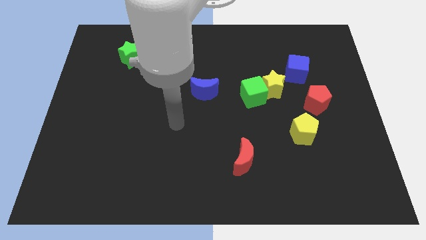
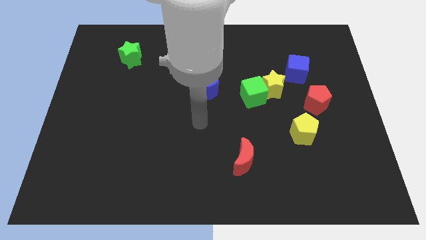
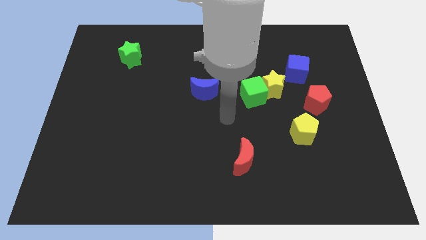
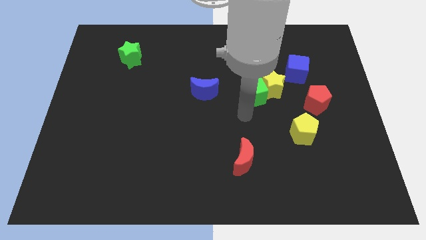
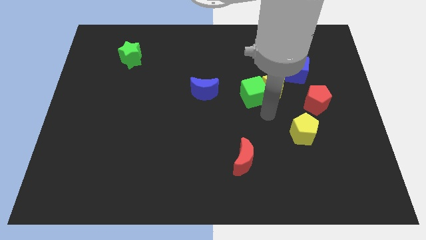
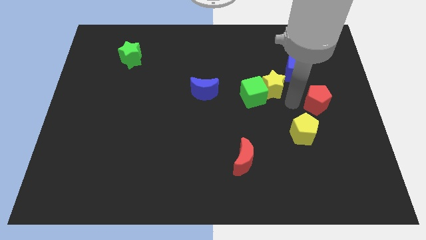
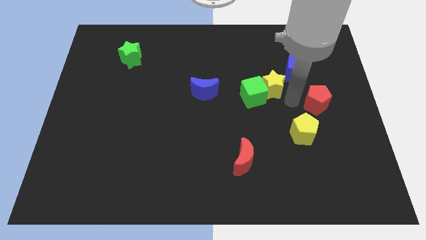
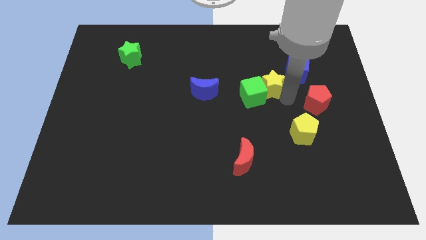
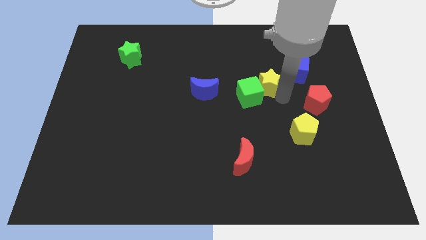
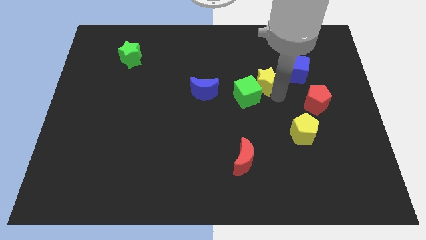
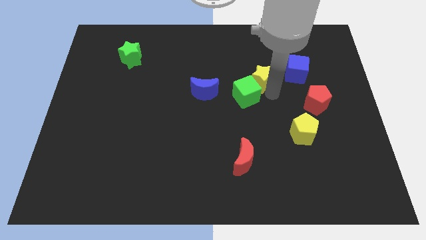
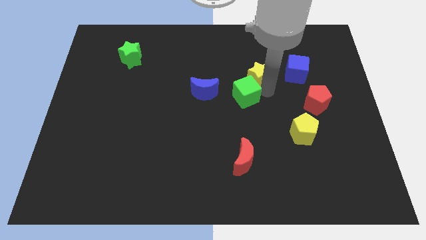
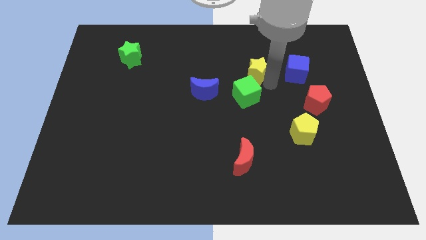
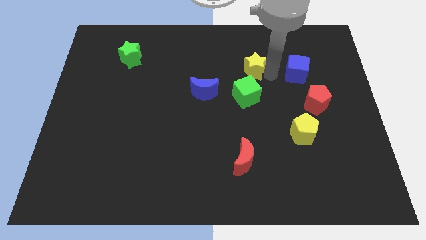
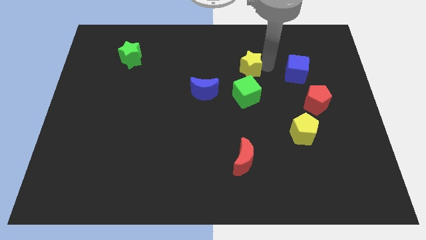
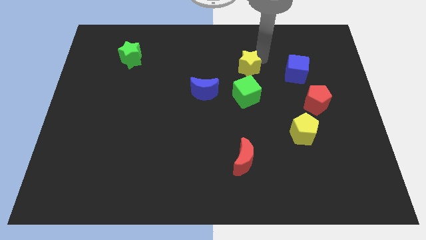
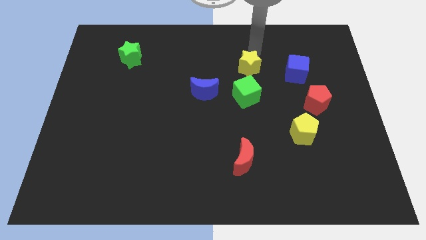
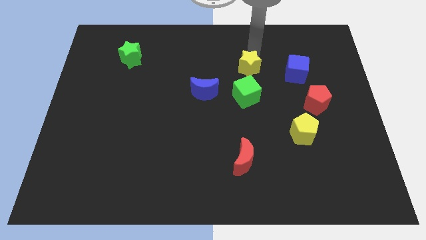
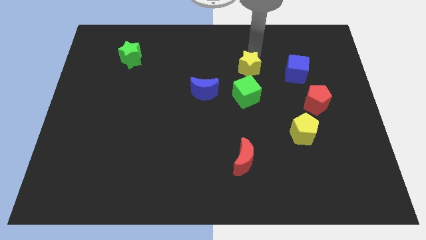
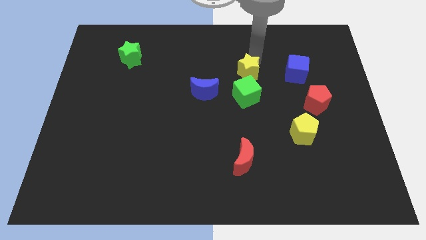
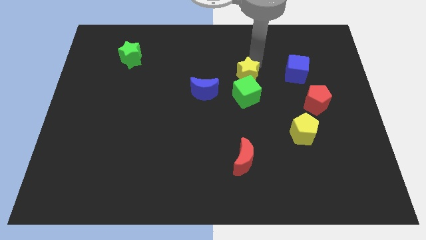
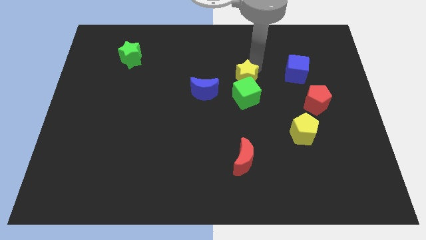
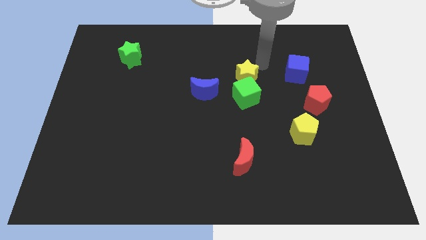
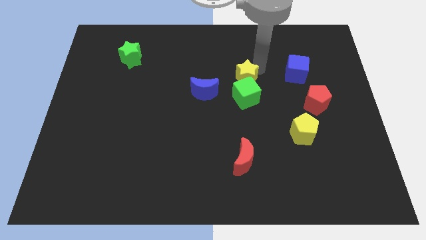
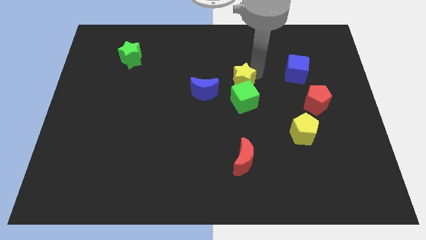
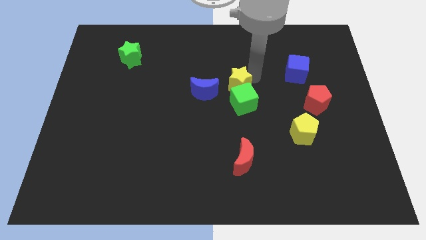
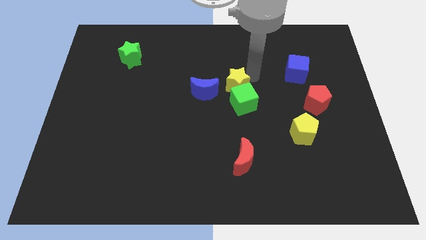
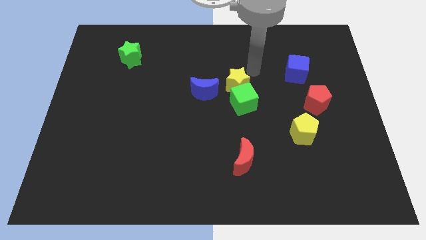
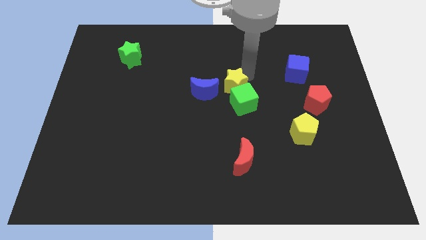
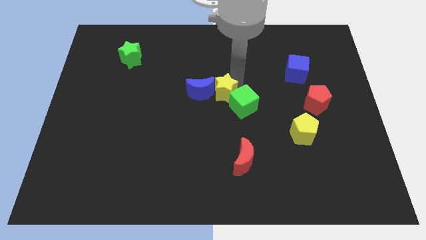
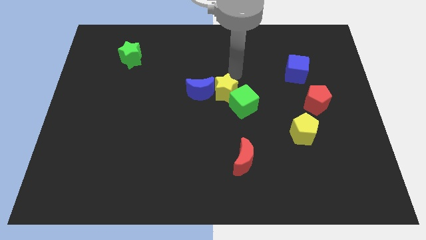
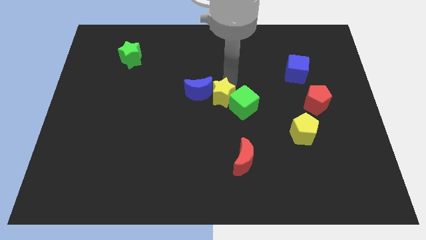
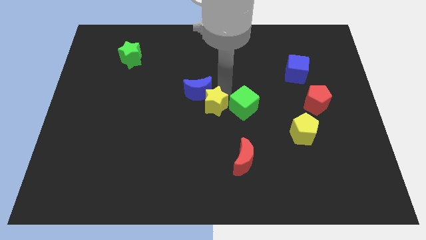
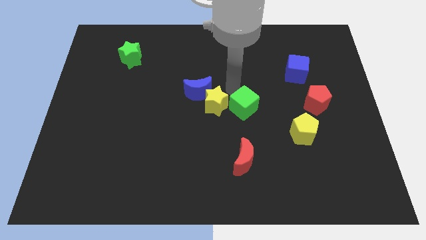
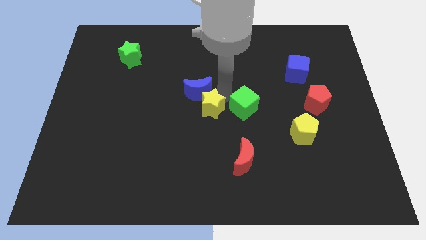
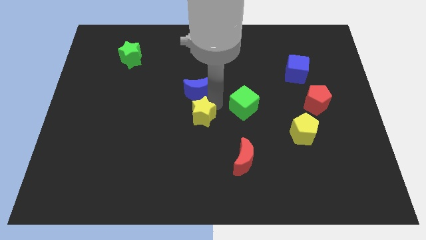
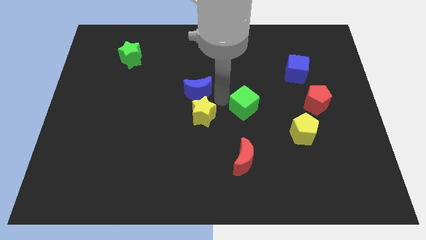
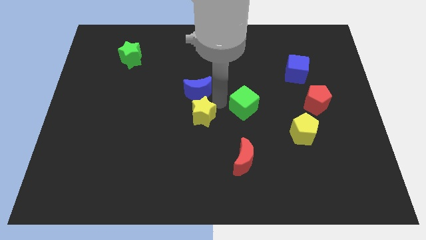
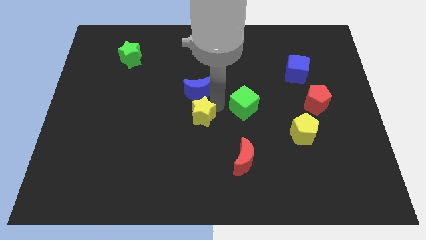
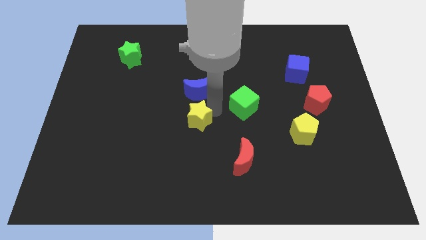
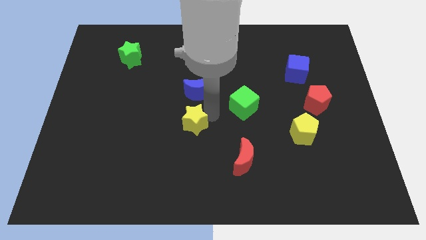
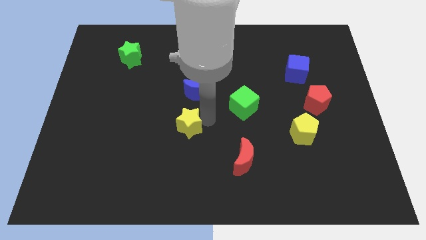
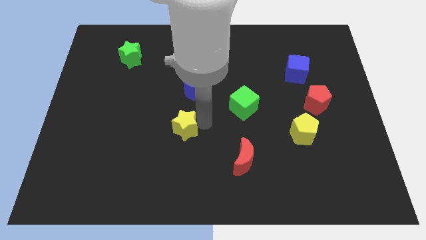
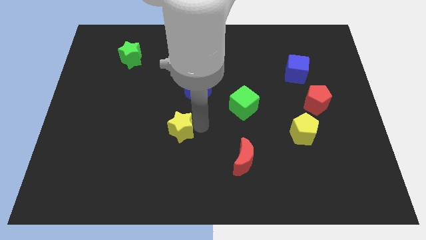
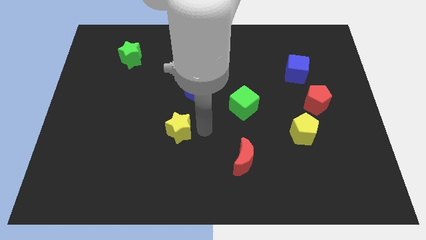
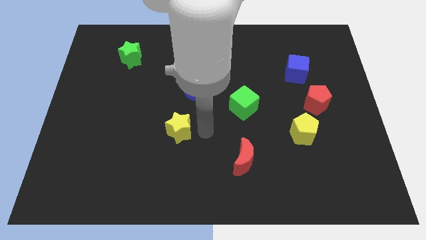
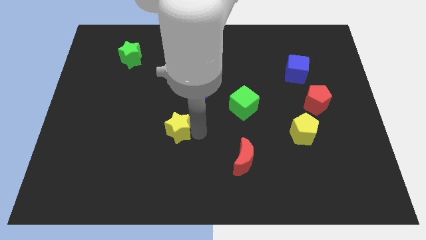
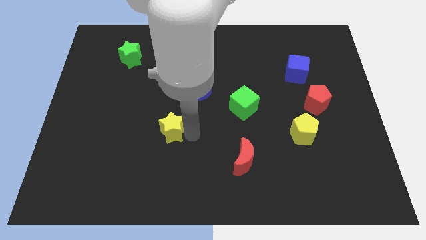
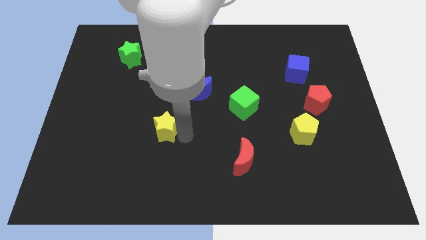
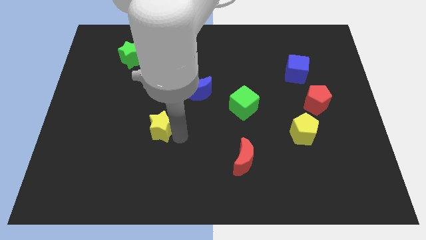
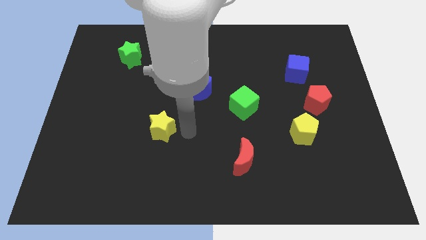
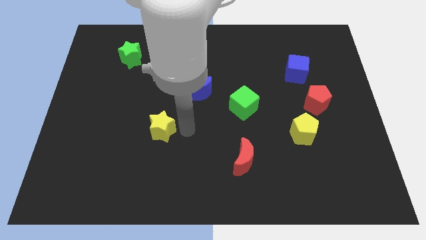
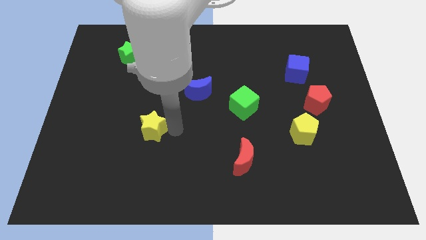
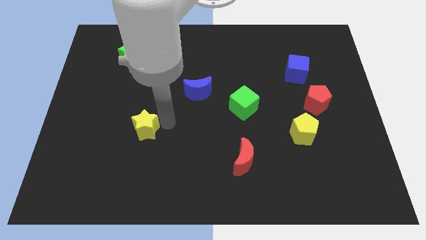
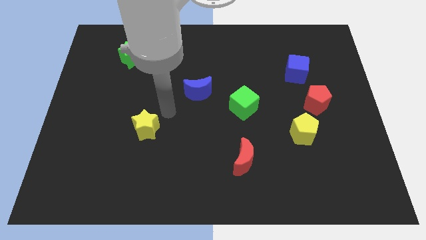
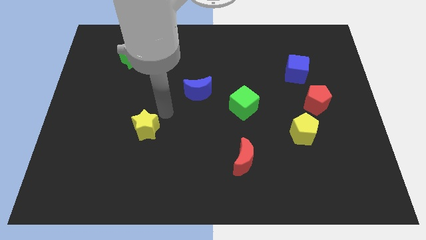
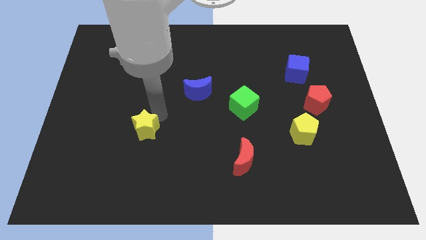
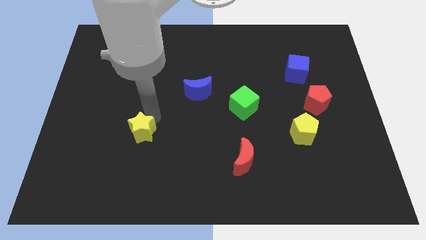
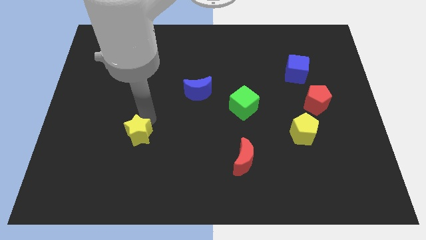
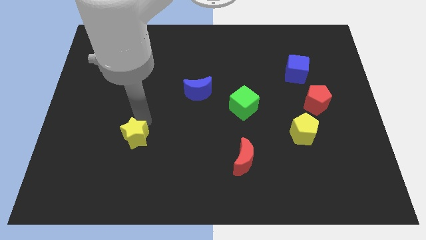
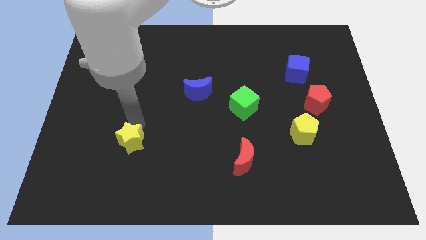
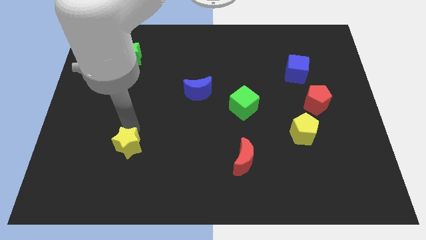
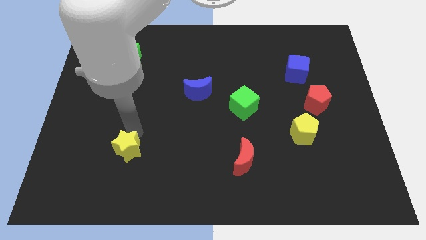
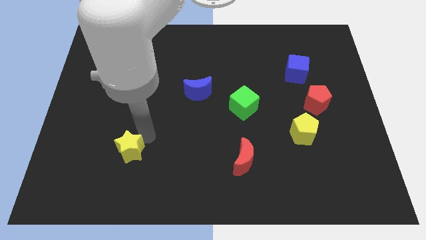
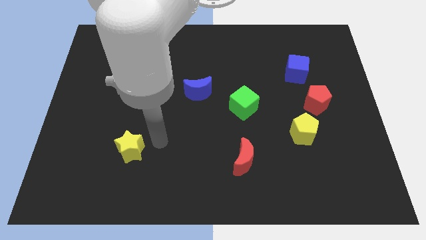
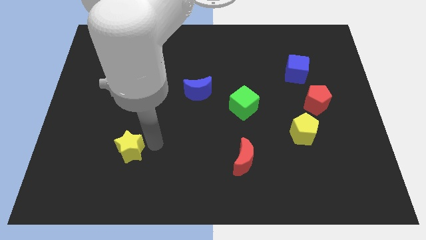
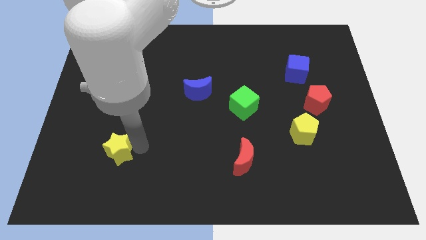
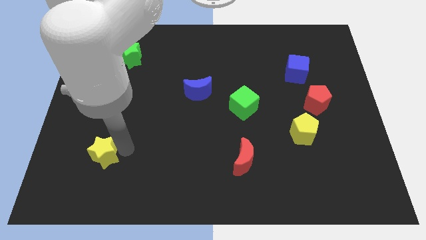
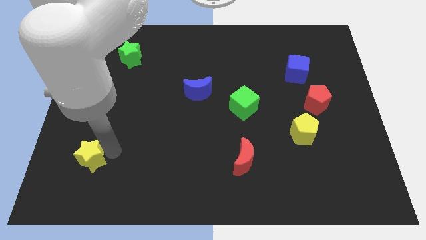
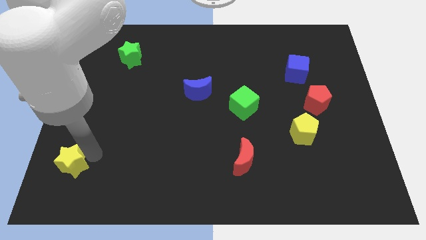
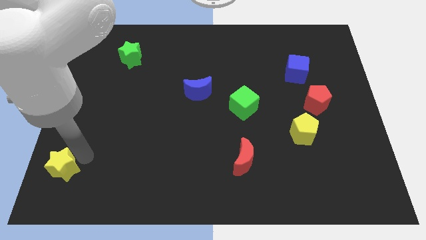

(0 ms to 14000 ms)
move the yellow star to the bottom left of the board
